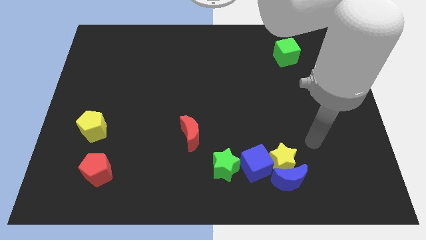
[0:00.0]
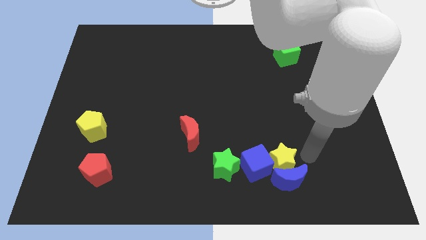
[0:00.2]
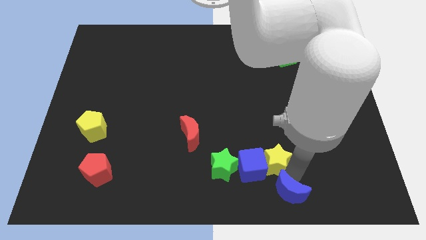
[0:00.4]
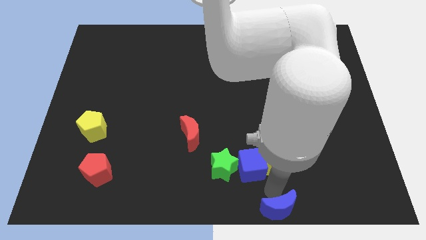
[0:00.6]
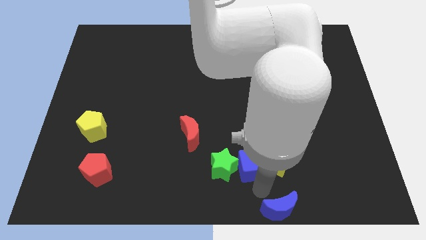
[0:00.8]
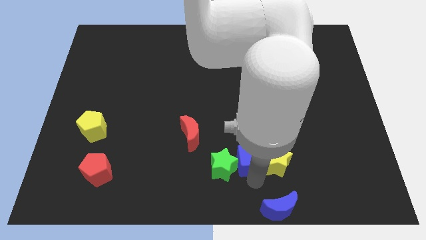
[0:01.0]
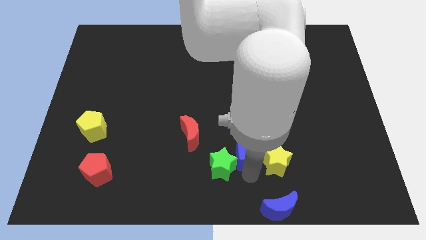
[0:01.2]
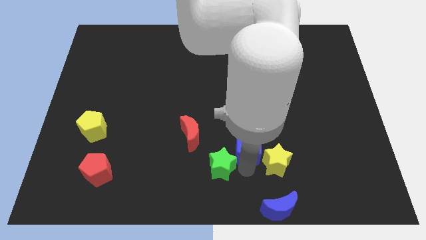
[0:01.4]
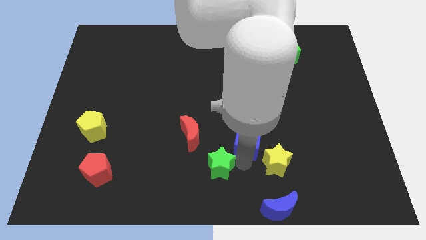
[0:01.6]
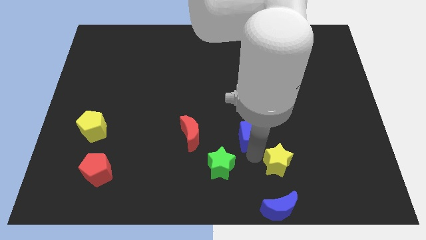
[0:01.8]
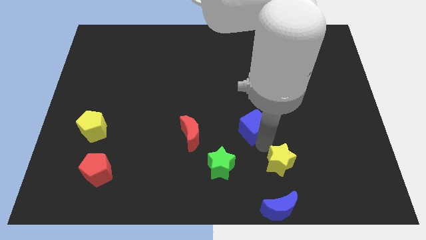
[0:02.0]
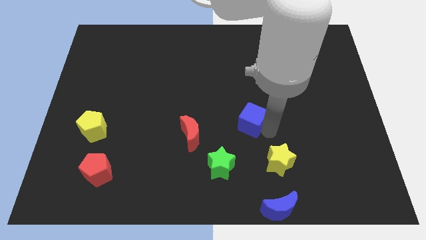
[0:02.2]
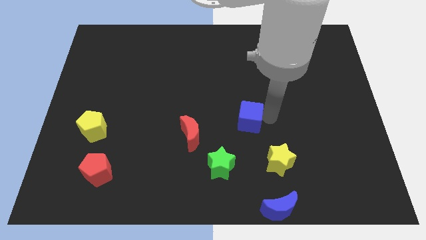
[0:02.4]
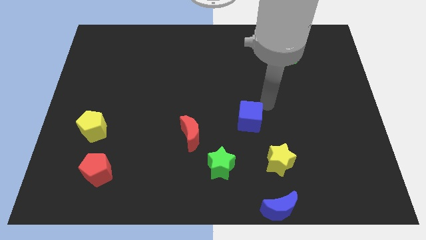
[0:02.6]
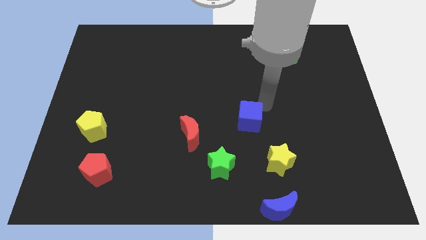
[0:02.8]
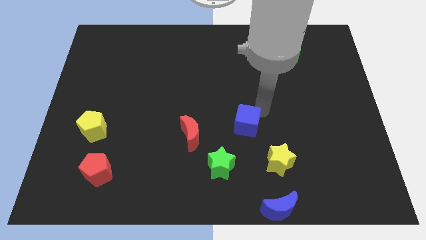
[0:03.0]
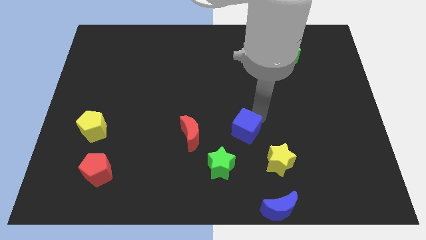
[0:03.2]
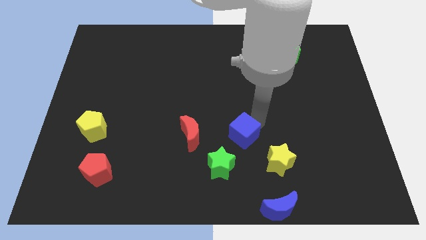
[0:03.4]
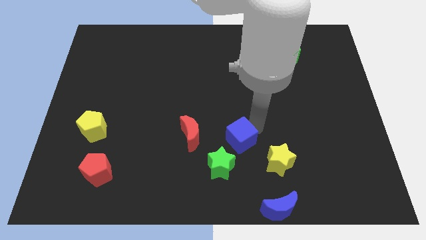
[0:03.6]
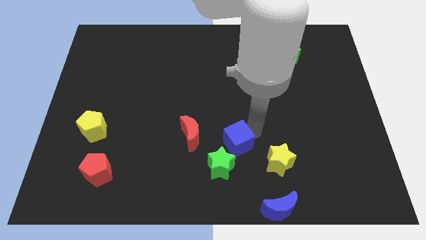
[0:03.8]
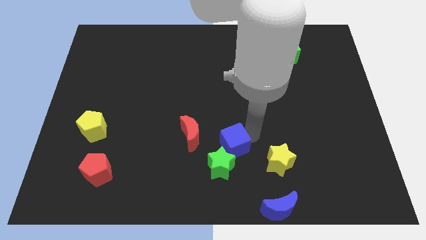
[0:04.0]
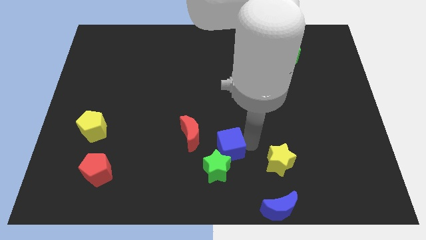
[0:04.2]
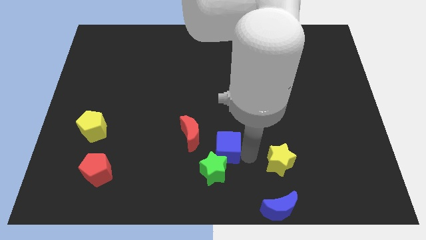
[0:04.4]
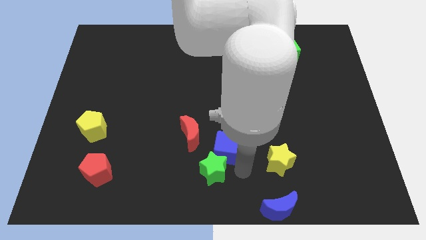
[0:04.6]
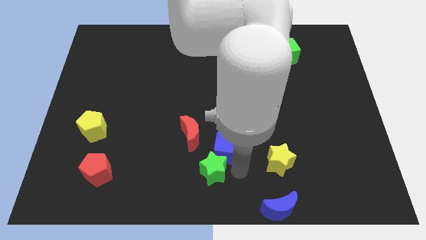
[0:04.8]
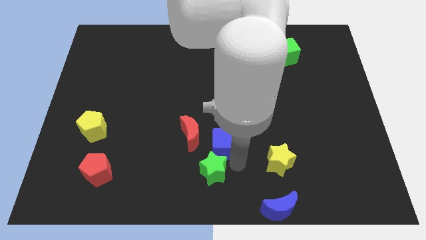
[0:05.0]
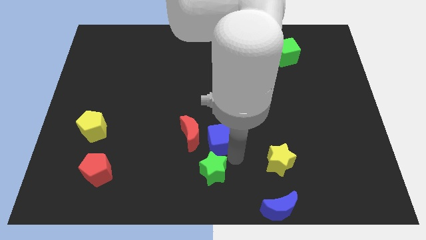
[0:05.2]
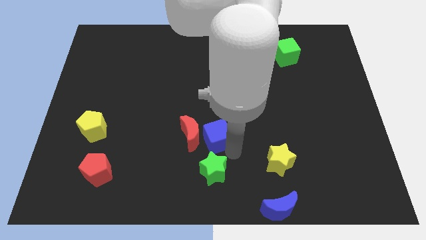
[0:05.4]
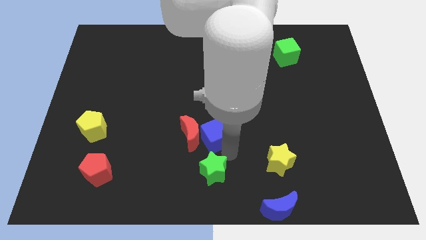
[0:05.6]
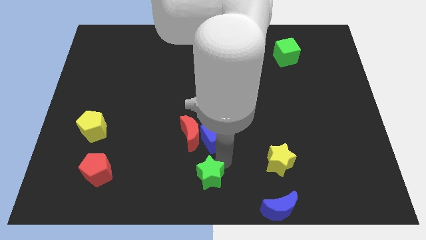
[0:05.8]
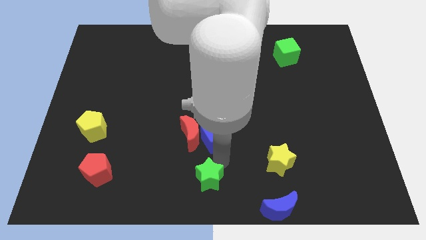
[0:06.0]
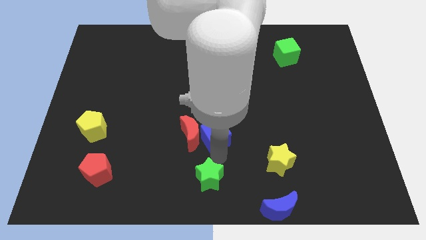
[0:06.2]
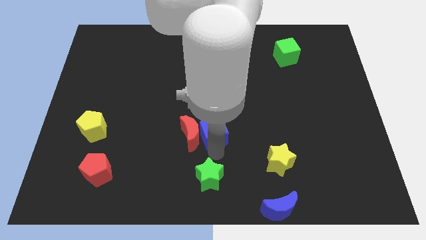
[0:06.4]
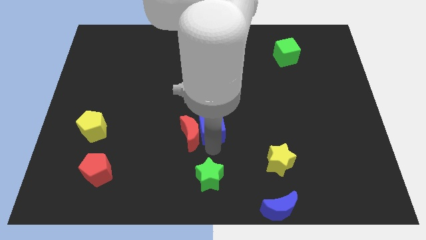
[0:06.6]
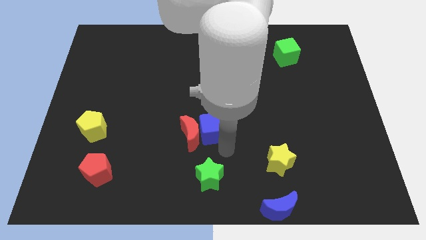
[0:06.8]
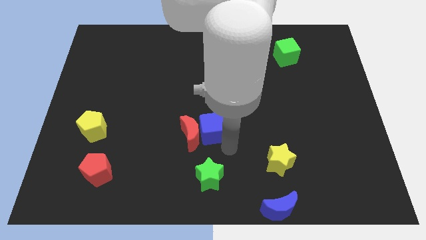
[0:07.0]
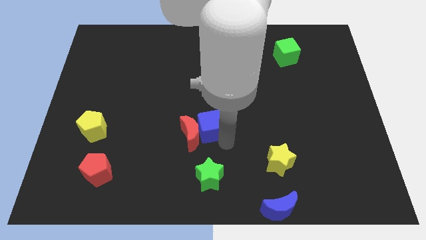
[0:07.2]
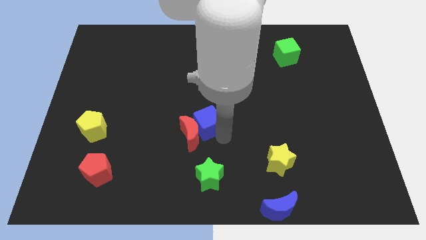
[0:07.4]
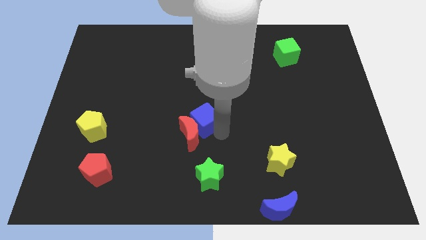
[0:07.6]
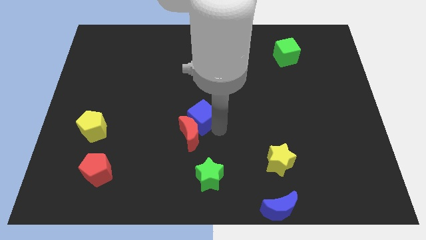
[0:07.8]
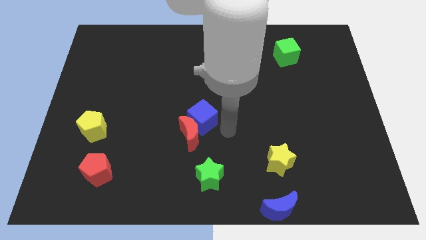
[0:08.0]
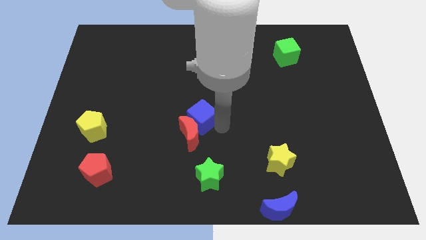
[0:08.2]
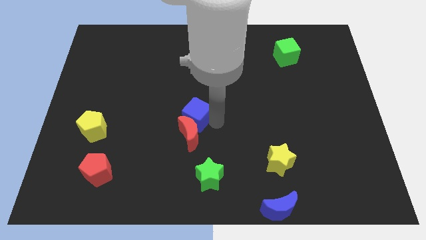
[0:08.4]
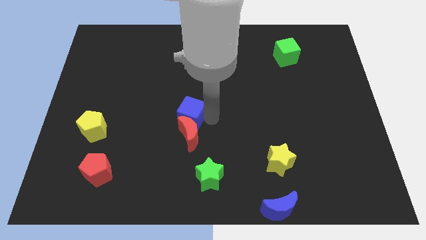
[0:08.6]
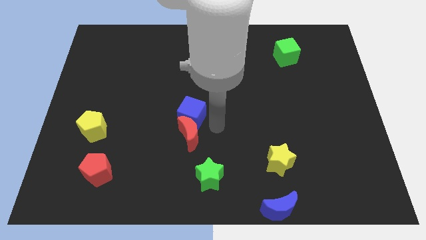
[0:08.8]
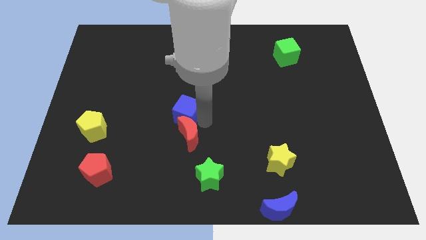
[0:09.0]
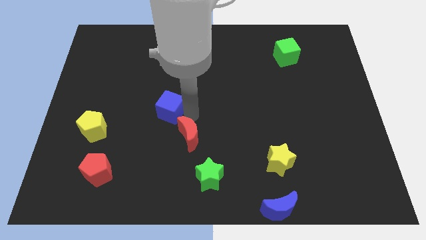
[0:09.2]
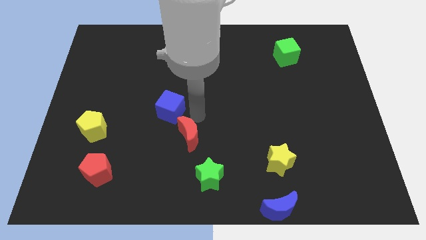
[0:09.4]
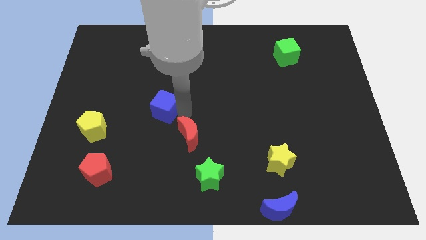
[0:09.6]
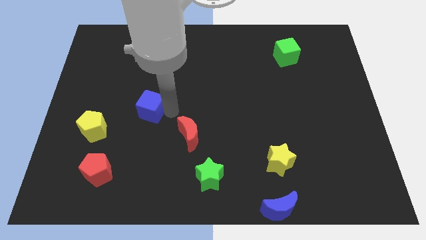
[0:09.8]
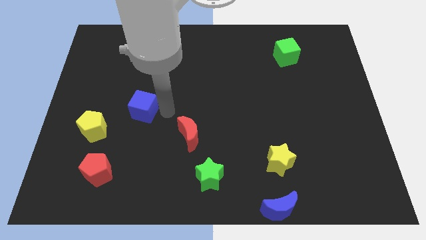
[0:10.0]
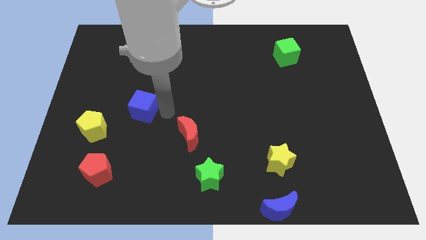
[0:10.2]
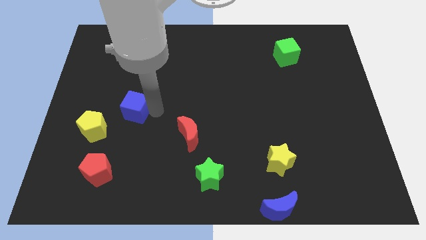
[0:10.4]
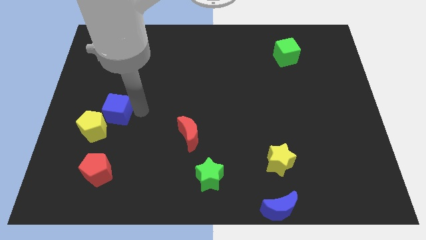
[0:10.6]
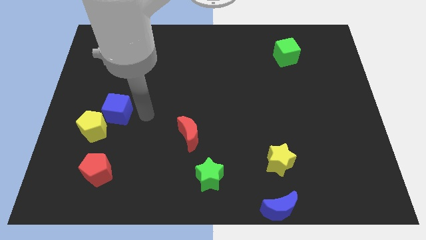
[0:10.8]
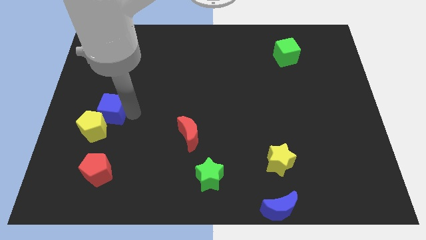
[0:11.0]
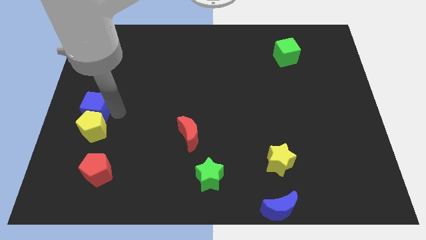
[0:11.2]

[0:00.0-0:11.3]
move the blue cube to the left side
